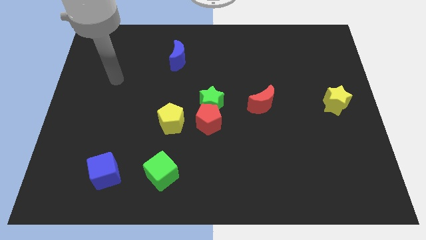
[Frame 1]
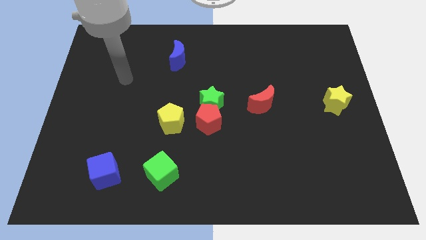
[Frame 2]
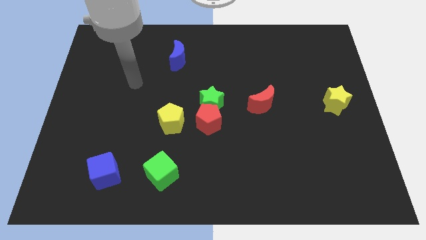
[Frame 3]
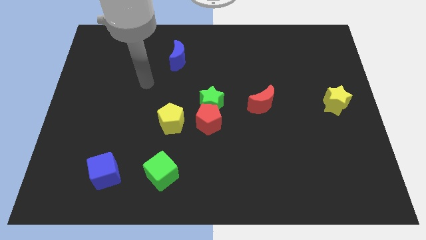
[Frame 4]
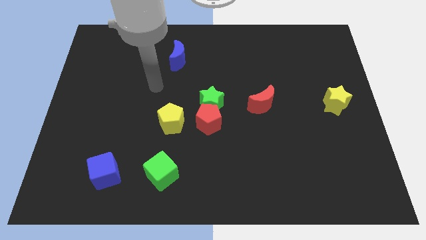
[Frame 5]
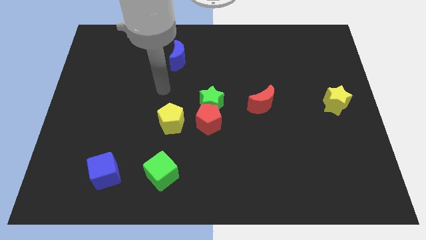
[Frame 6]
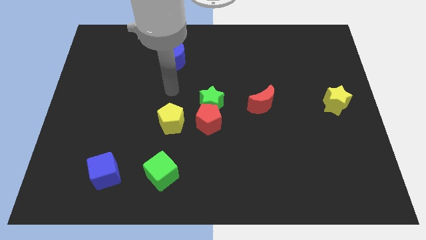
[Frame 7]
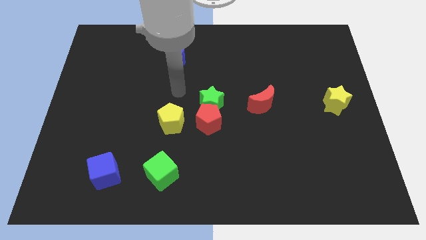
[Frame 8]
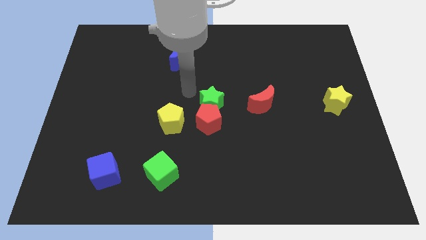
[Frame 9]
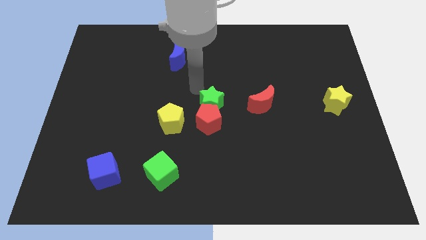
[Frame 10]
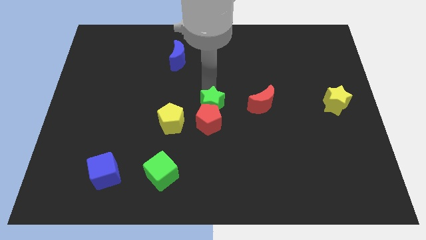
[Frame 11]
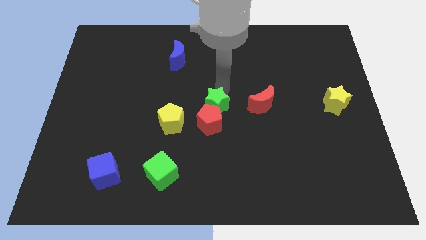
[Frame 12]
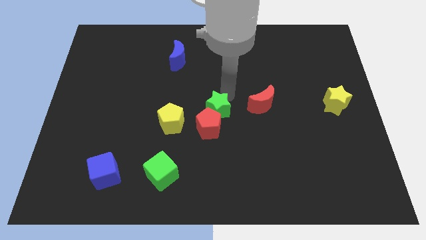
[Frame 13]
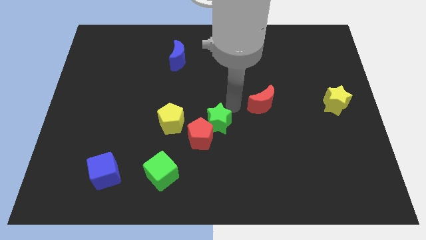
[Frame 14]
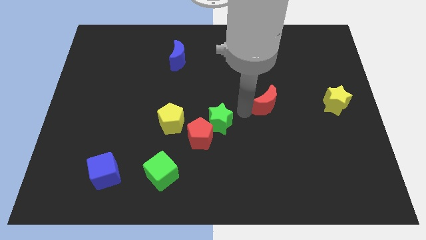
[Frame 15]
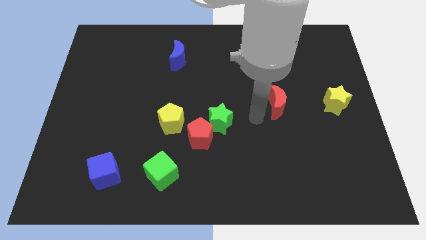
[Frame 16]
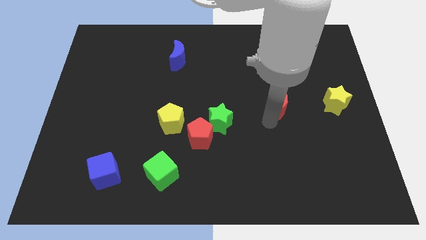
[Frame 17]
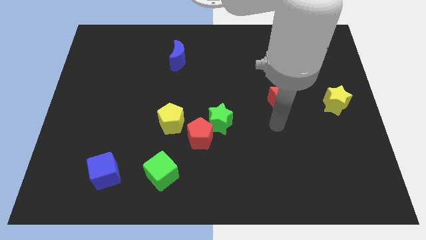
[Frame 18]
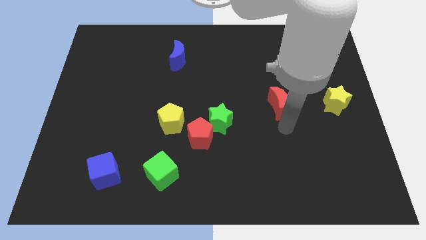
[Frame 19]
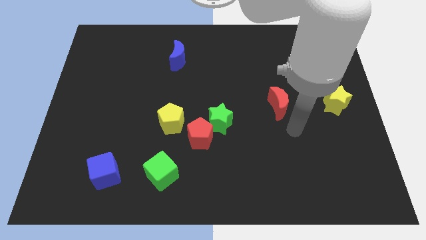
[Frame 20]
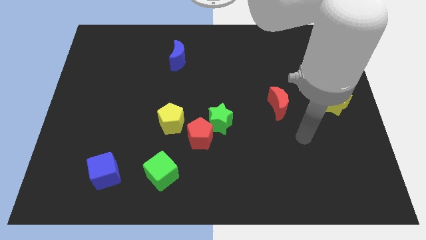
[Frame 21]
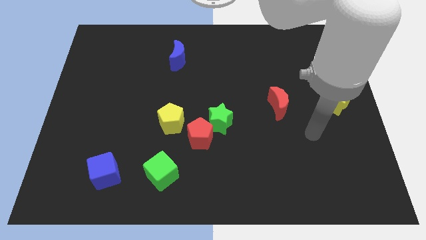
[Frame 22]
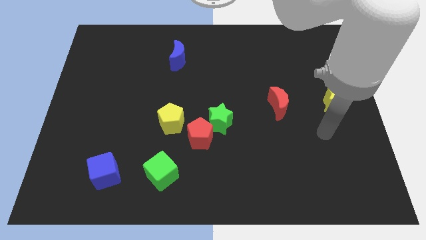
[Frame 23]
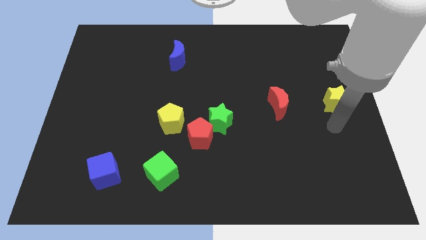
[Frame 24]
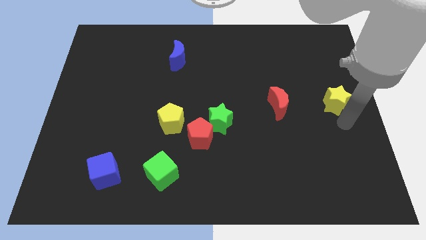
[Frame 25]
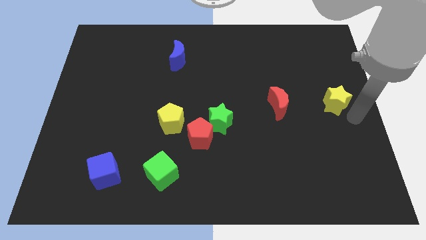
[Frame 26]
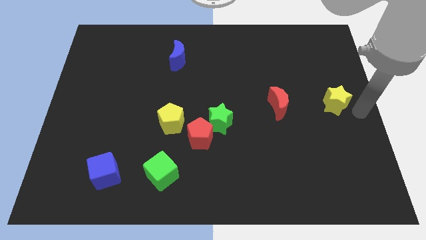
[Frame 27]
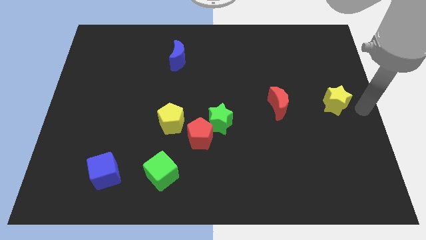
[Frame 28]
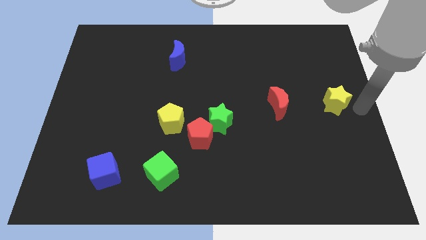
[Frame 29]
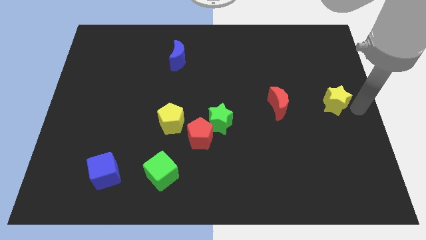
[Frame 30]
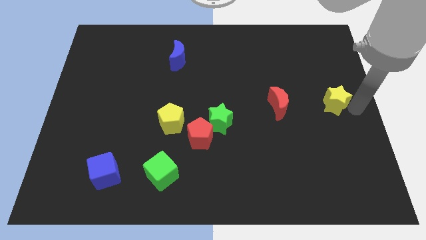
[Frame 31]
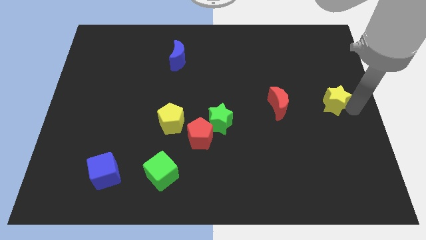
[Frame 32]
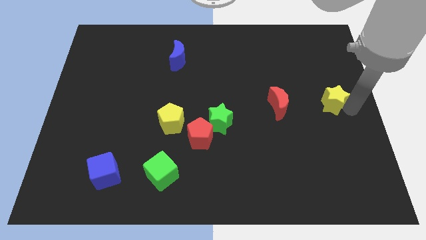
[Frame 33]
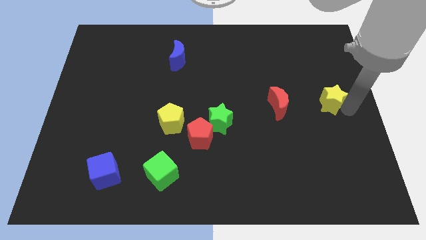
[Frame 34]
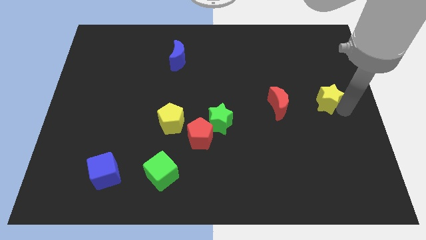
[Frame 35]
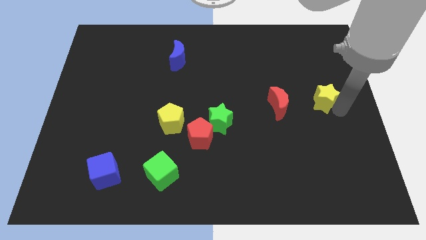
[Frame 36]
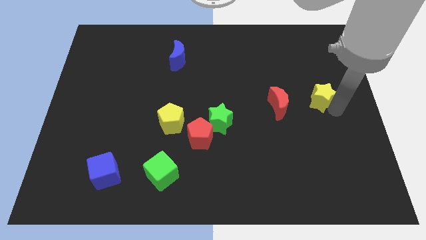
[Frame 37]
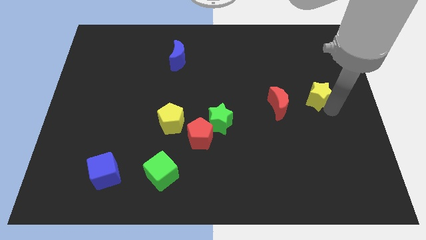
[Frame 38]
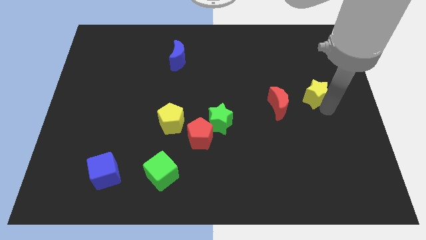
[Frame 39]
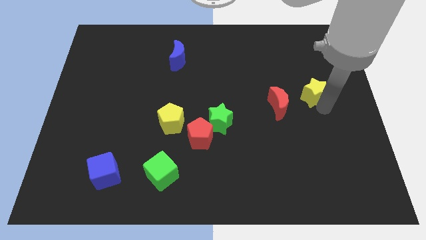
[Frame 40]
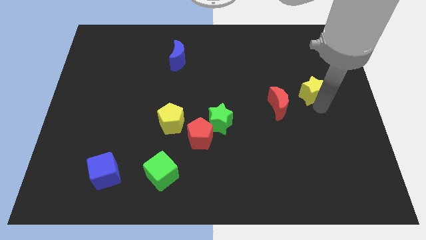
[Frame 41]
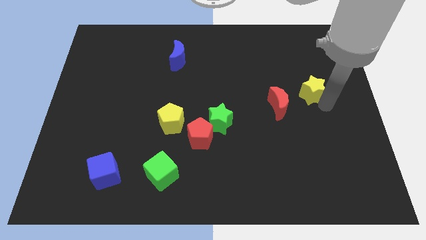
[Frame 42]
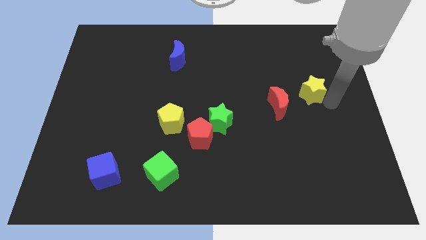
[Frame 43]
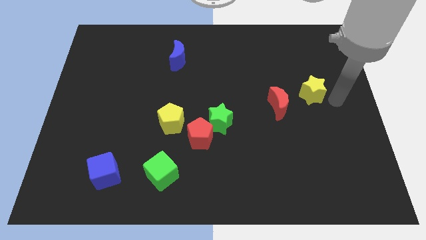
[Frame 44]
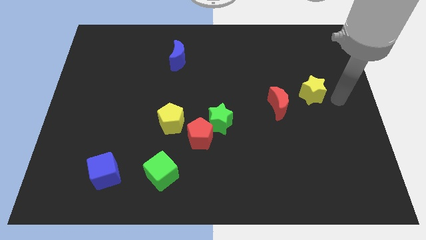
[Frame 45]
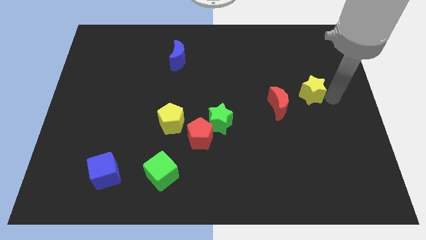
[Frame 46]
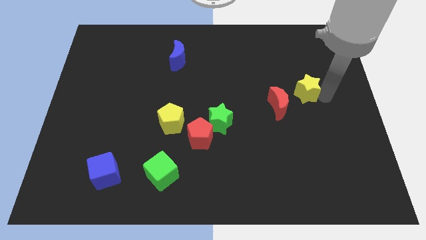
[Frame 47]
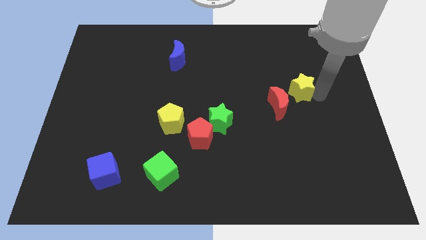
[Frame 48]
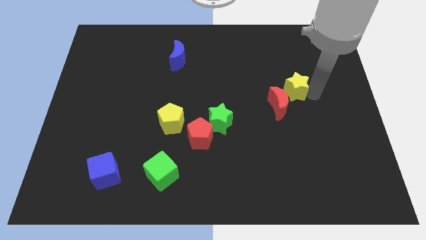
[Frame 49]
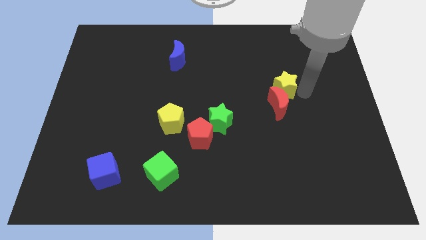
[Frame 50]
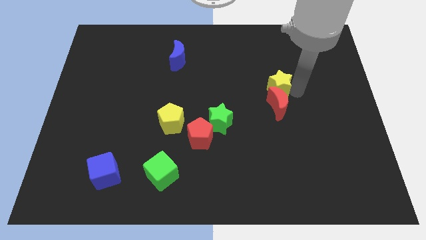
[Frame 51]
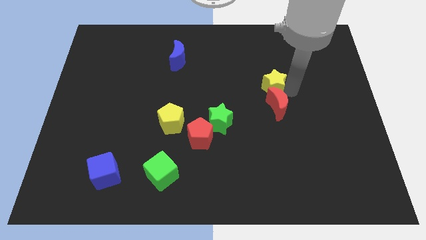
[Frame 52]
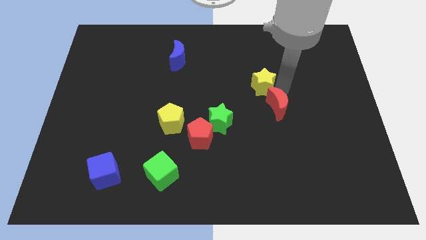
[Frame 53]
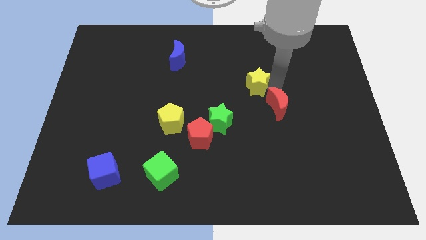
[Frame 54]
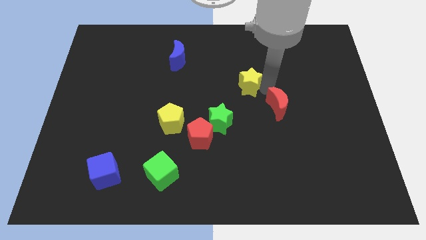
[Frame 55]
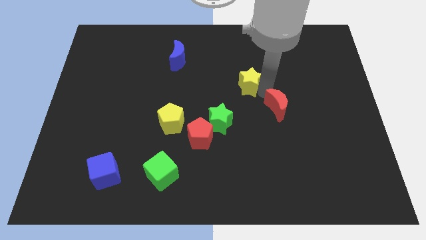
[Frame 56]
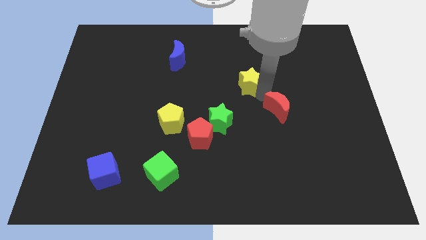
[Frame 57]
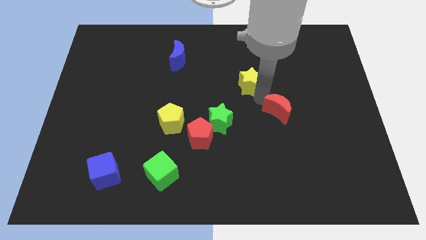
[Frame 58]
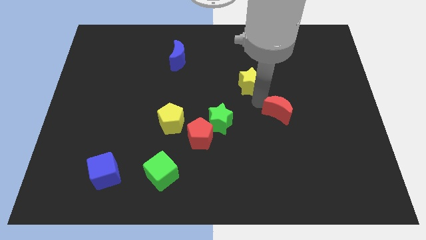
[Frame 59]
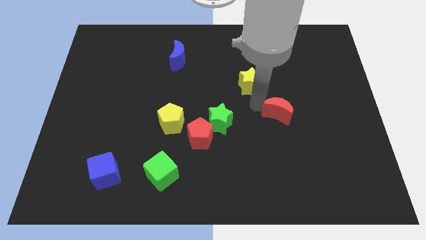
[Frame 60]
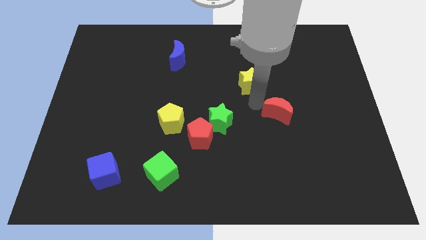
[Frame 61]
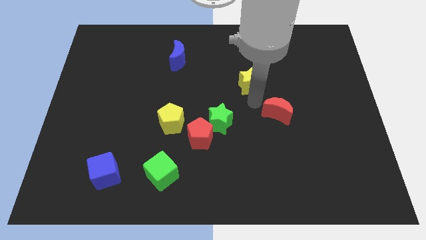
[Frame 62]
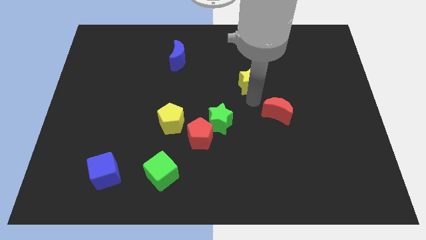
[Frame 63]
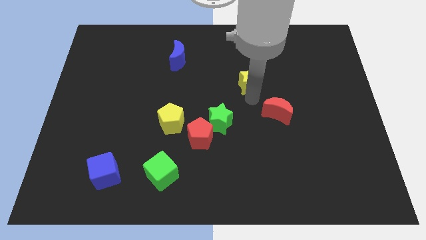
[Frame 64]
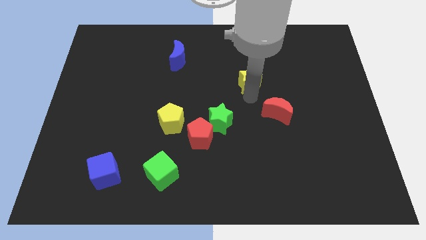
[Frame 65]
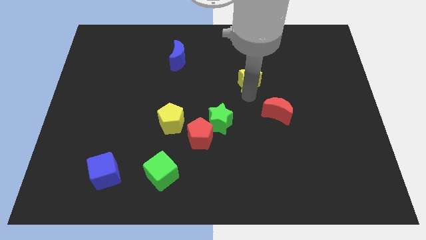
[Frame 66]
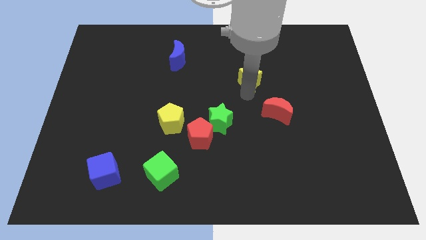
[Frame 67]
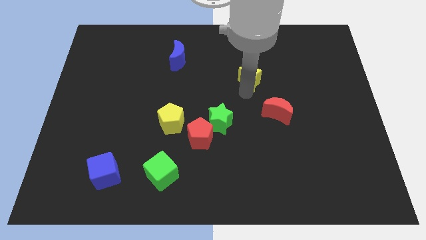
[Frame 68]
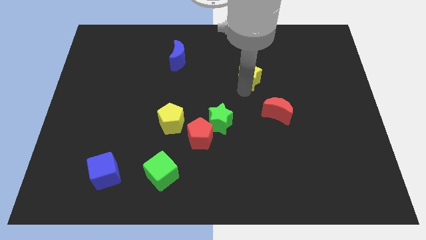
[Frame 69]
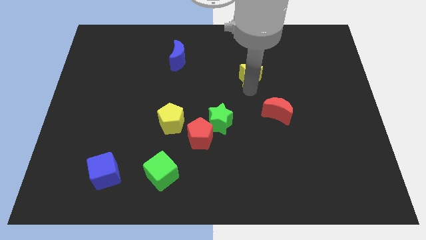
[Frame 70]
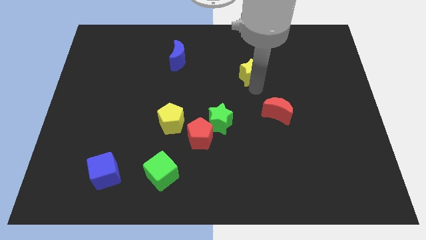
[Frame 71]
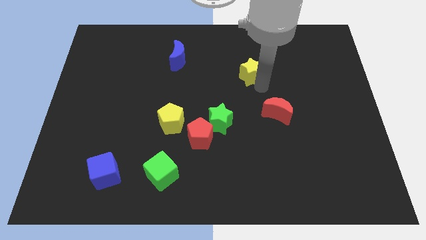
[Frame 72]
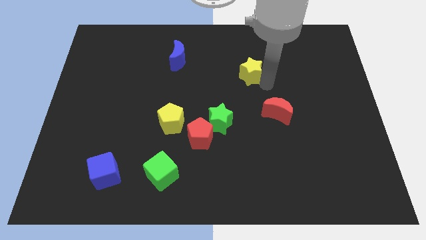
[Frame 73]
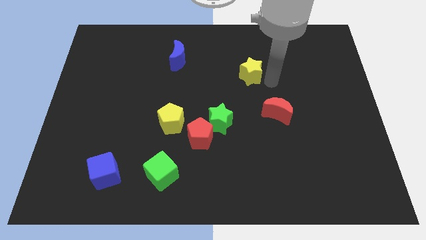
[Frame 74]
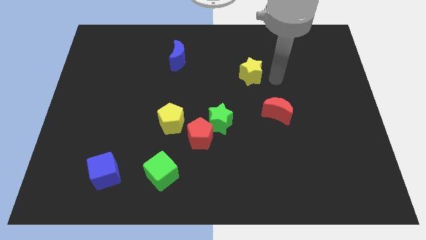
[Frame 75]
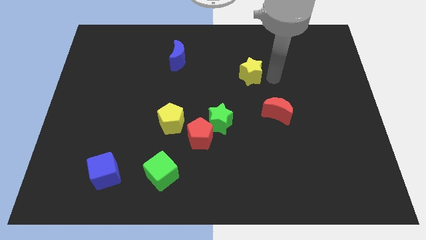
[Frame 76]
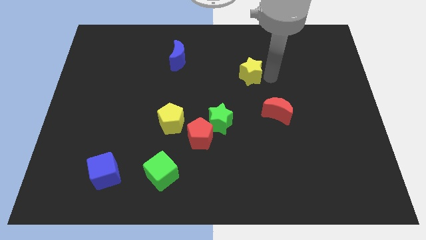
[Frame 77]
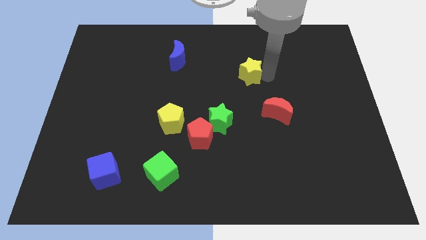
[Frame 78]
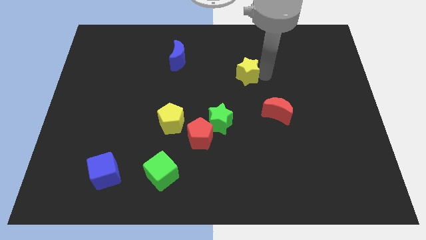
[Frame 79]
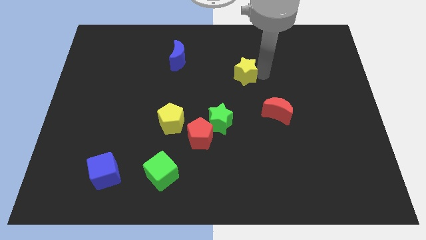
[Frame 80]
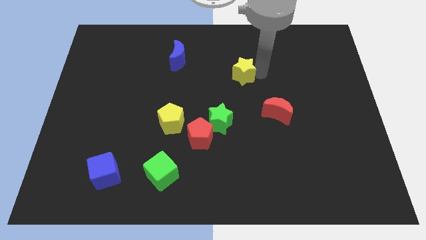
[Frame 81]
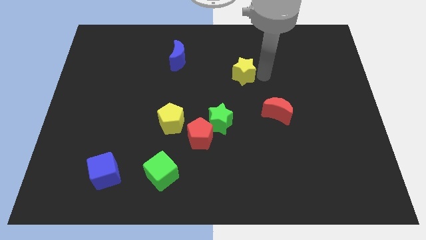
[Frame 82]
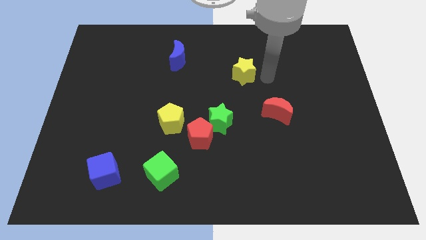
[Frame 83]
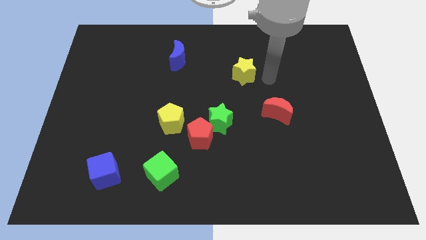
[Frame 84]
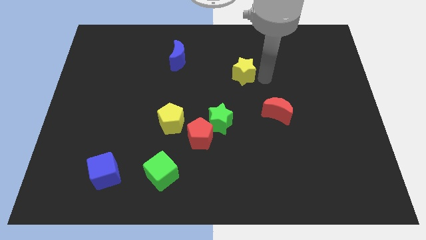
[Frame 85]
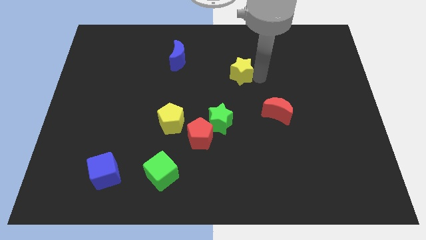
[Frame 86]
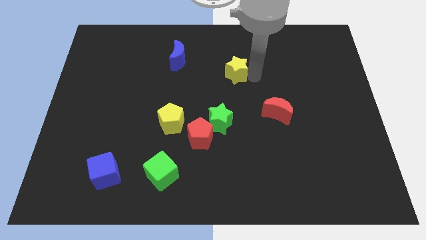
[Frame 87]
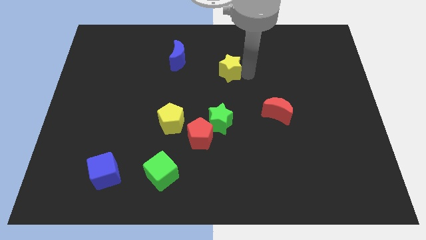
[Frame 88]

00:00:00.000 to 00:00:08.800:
move the yellow star to the top side of the green star
